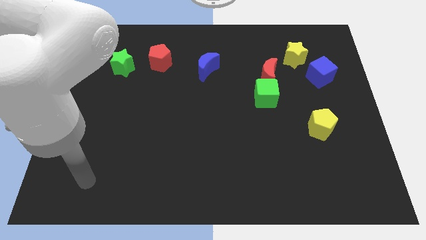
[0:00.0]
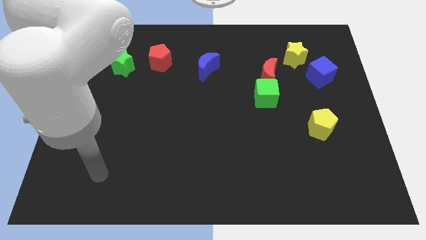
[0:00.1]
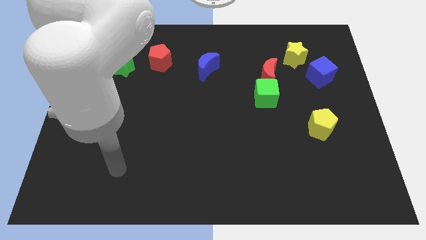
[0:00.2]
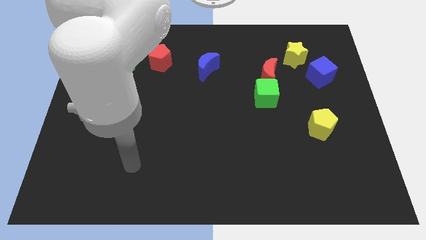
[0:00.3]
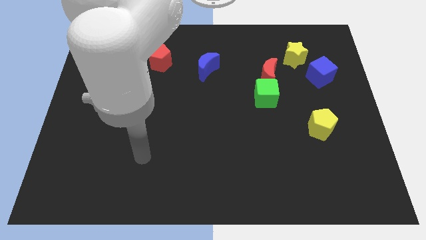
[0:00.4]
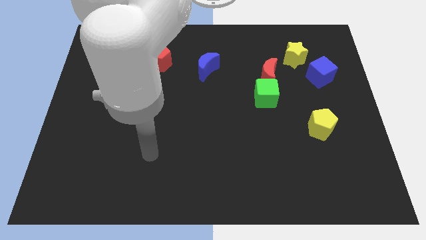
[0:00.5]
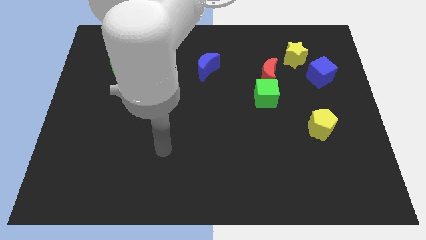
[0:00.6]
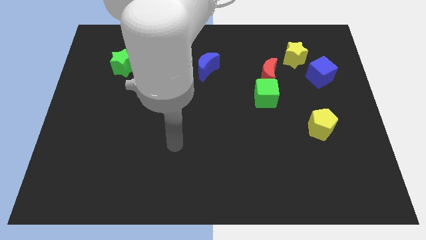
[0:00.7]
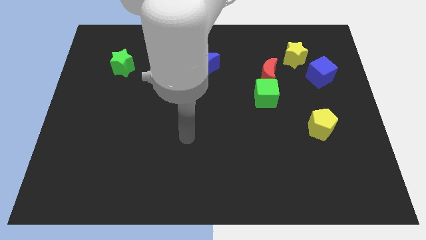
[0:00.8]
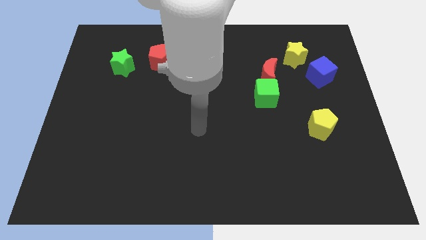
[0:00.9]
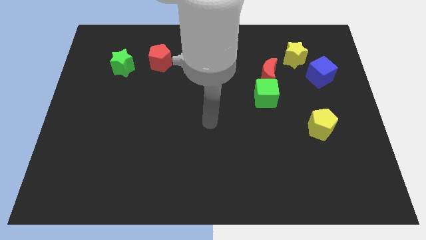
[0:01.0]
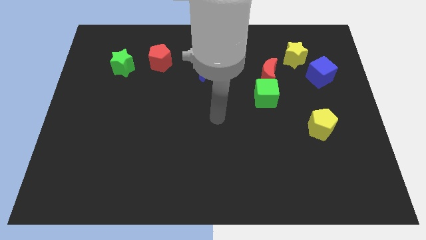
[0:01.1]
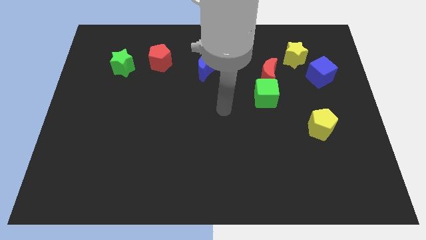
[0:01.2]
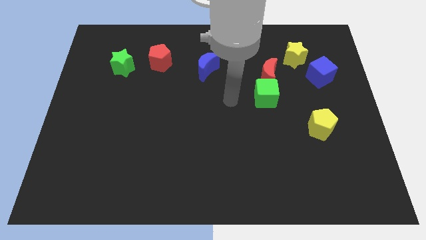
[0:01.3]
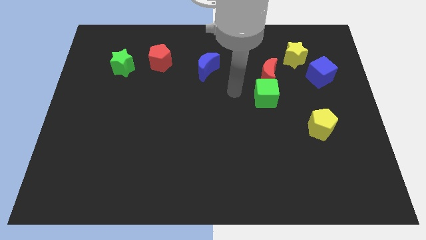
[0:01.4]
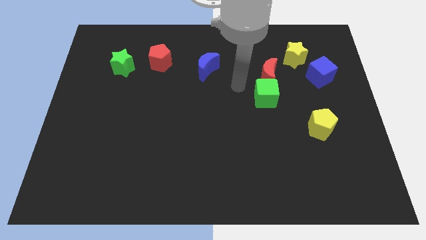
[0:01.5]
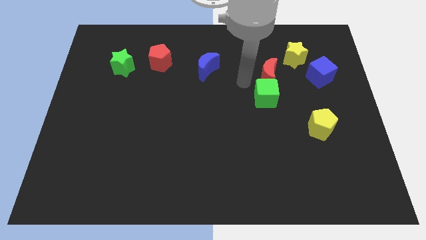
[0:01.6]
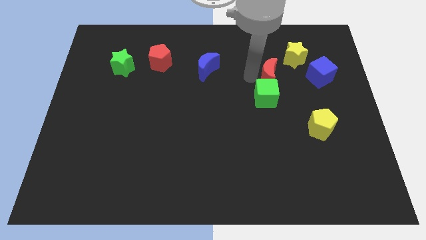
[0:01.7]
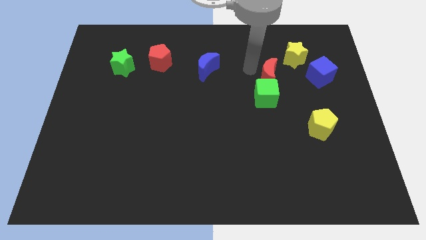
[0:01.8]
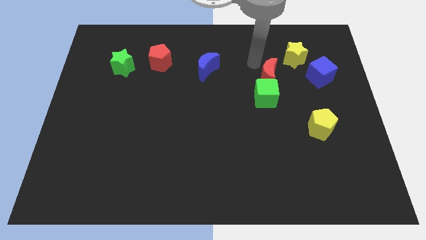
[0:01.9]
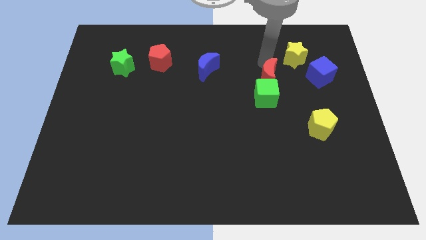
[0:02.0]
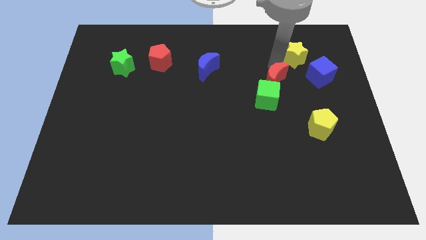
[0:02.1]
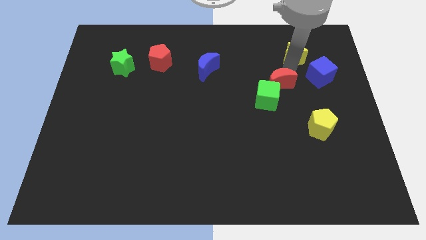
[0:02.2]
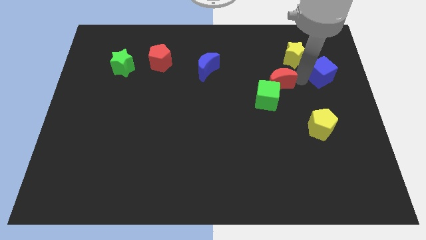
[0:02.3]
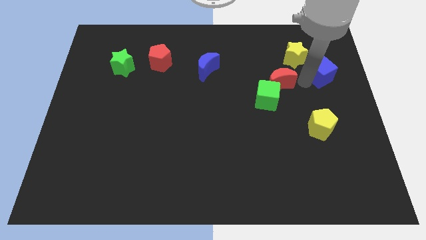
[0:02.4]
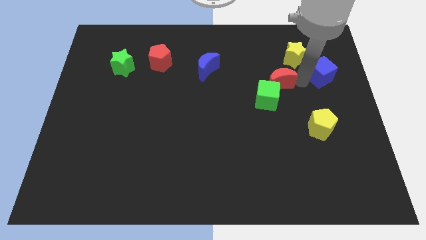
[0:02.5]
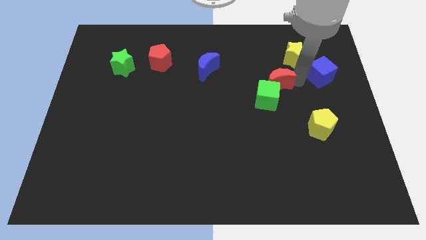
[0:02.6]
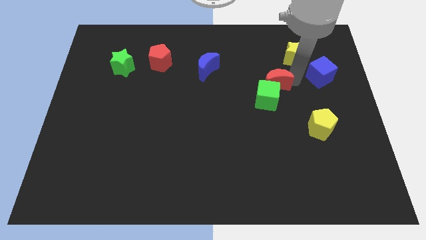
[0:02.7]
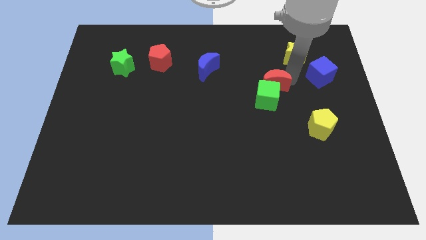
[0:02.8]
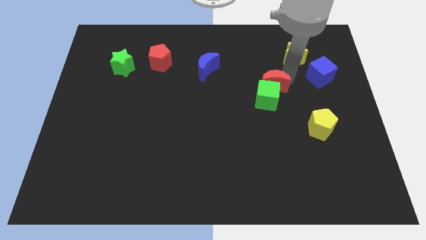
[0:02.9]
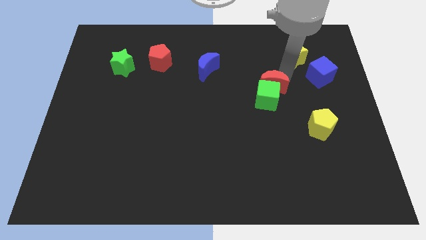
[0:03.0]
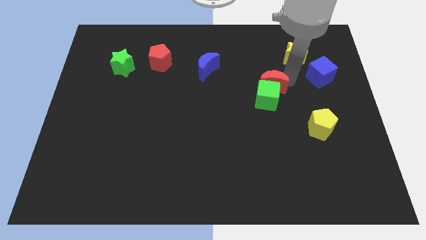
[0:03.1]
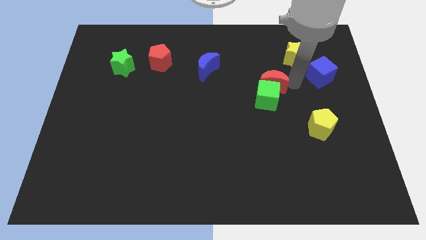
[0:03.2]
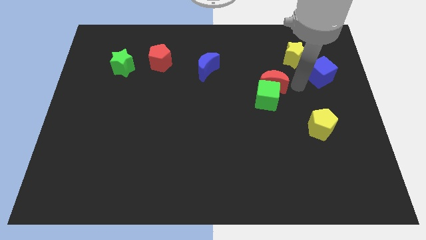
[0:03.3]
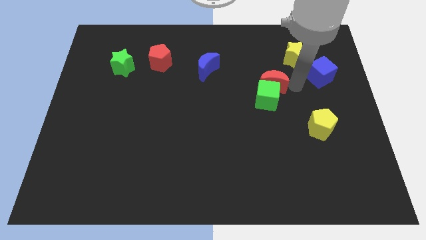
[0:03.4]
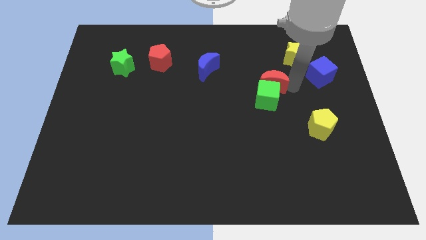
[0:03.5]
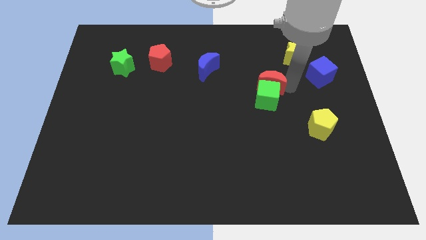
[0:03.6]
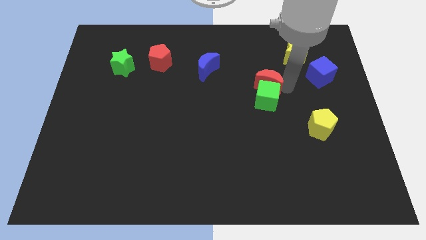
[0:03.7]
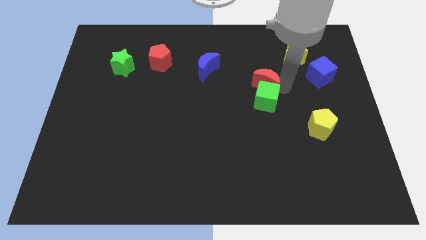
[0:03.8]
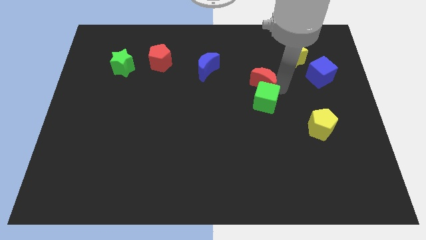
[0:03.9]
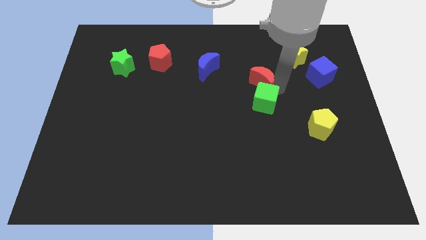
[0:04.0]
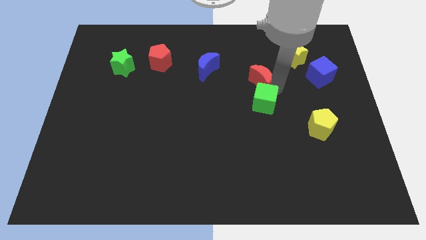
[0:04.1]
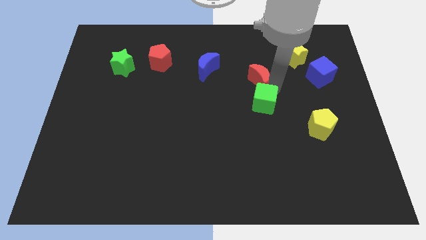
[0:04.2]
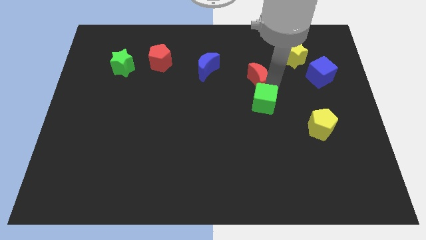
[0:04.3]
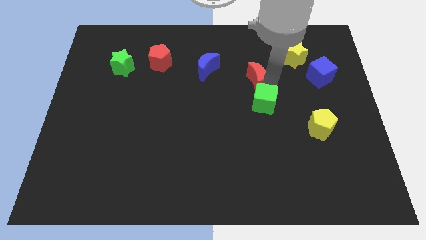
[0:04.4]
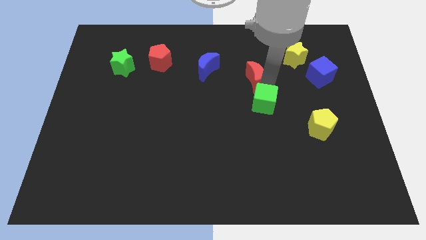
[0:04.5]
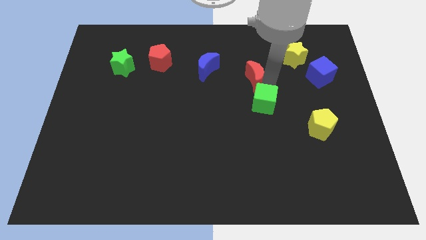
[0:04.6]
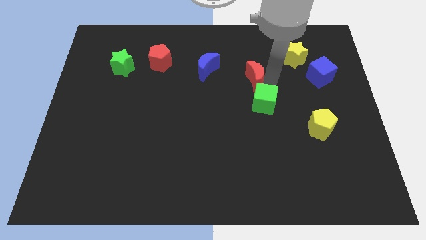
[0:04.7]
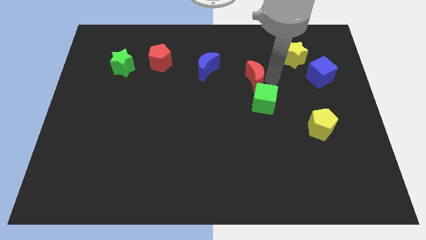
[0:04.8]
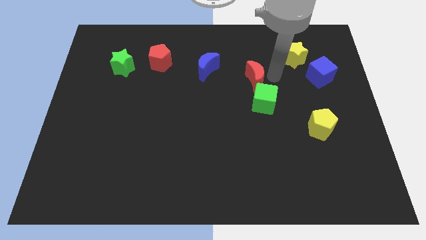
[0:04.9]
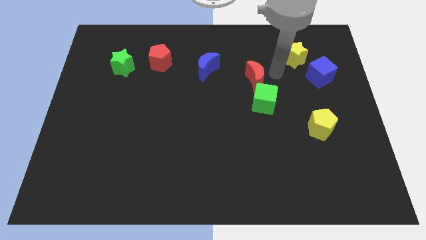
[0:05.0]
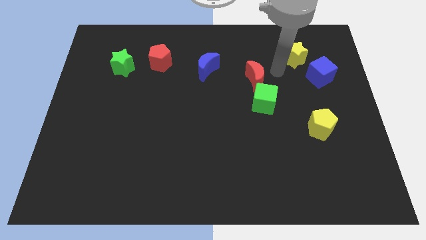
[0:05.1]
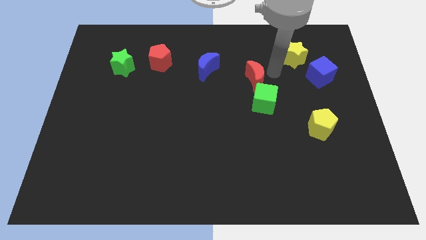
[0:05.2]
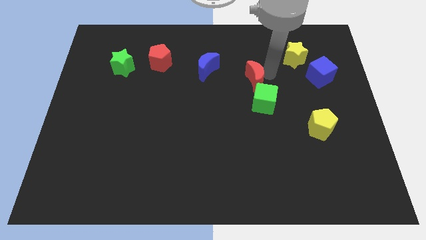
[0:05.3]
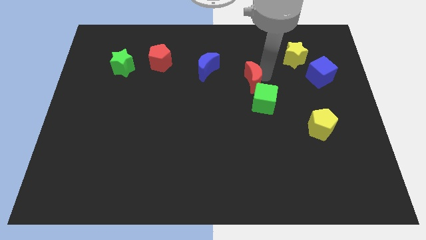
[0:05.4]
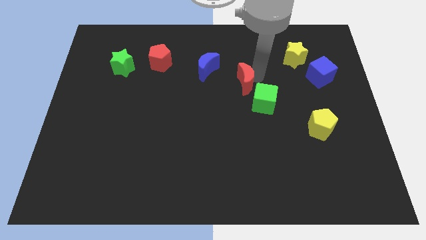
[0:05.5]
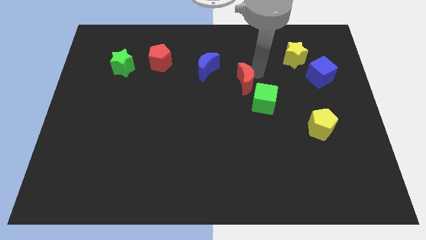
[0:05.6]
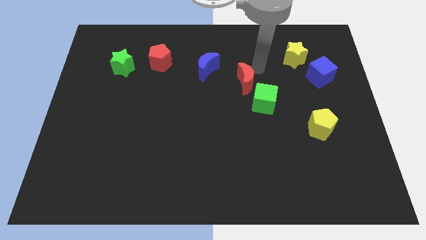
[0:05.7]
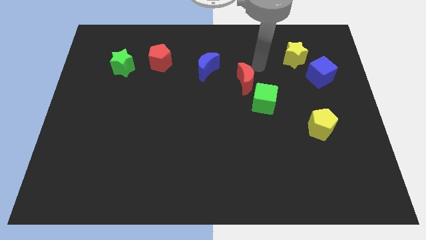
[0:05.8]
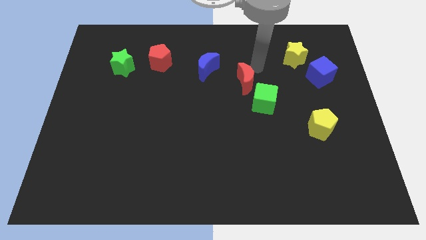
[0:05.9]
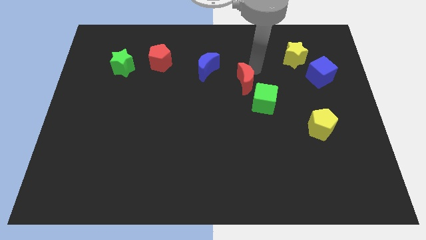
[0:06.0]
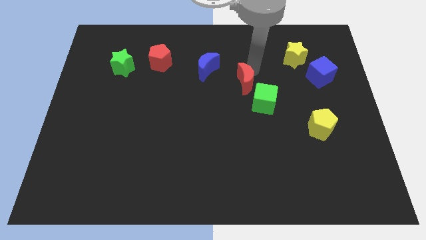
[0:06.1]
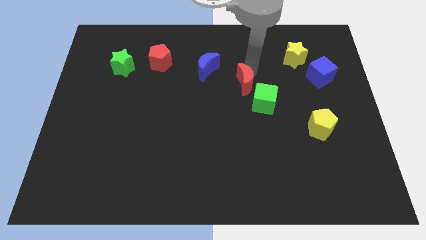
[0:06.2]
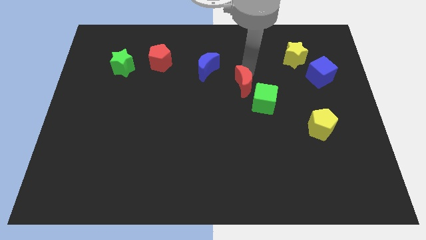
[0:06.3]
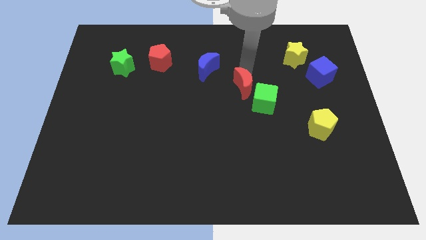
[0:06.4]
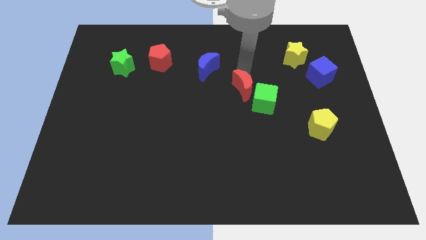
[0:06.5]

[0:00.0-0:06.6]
push the red moon somewhat down and then left

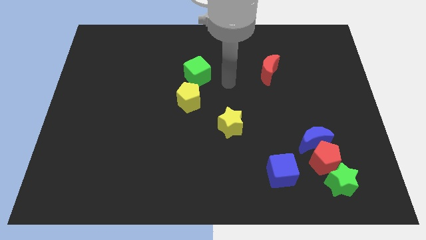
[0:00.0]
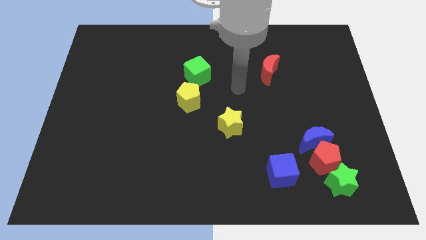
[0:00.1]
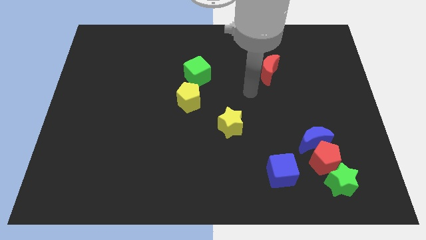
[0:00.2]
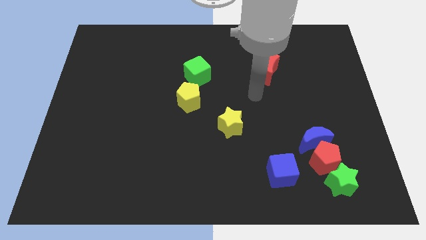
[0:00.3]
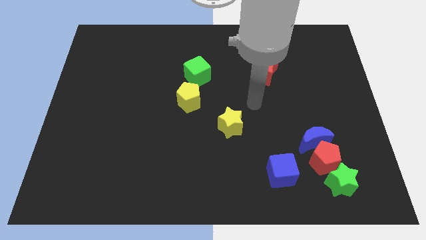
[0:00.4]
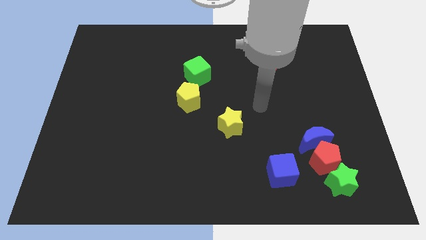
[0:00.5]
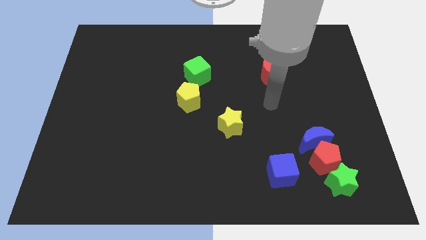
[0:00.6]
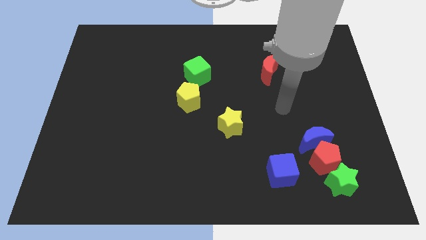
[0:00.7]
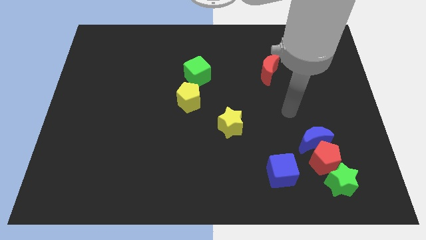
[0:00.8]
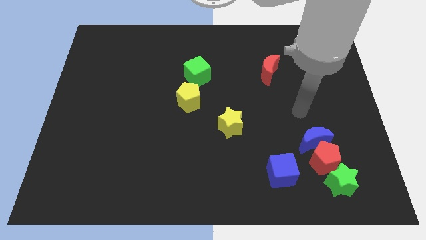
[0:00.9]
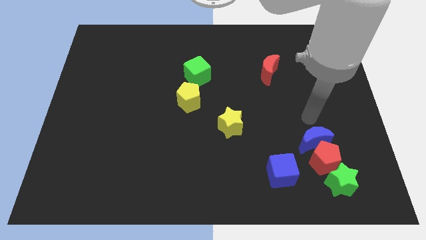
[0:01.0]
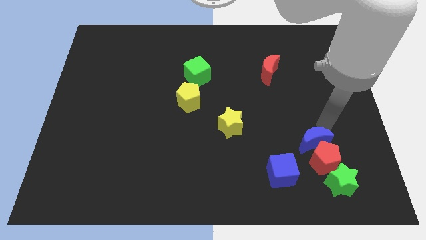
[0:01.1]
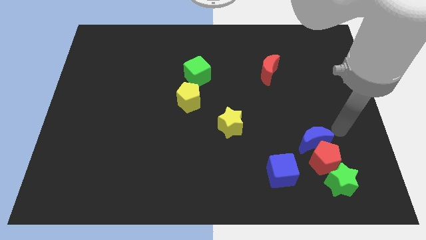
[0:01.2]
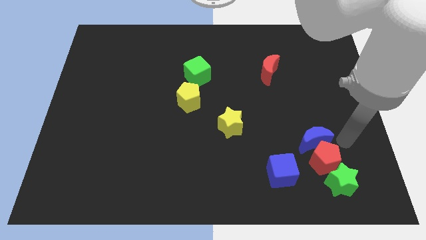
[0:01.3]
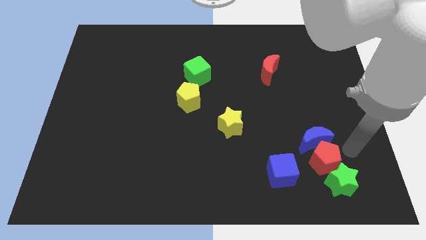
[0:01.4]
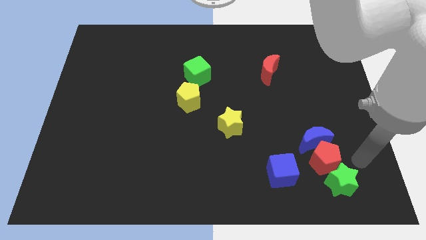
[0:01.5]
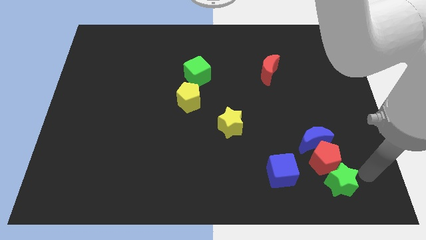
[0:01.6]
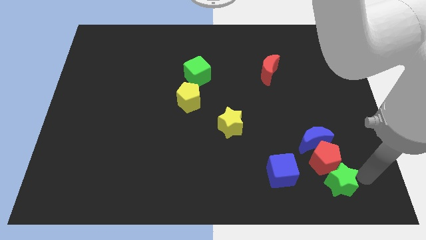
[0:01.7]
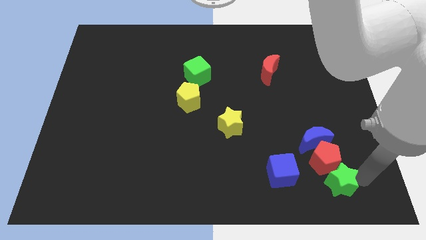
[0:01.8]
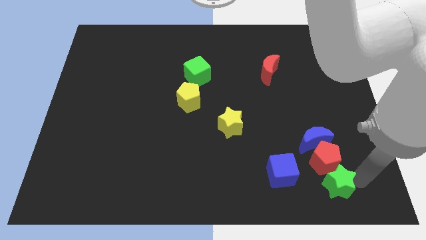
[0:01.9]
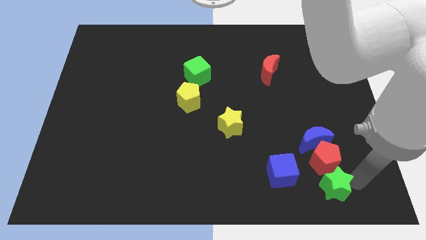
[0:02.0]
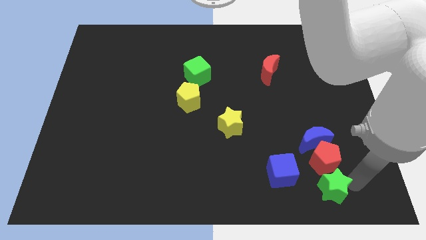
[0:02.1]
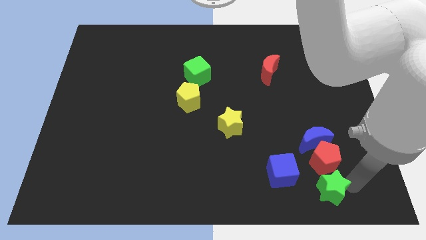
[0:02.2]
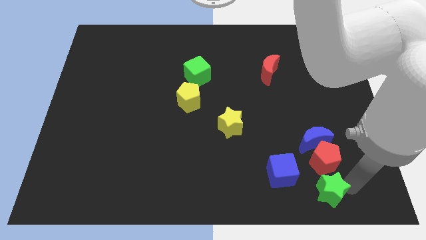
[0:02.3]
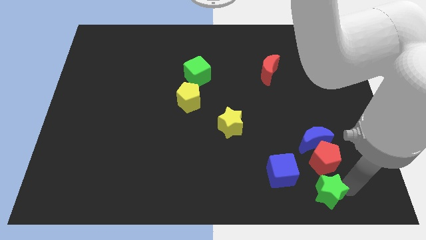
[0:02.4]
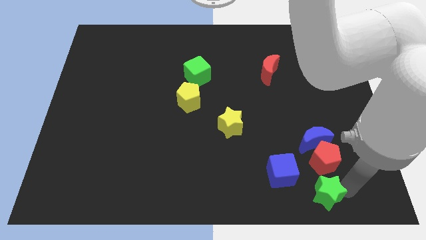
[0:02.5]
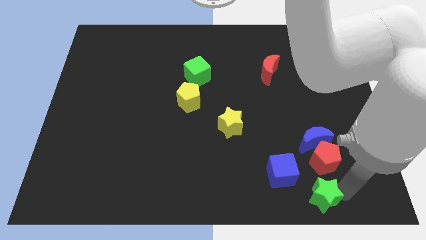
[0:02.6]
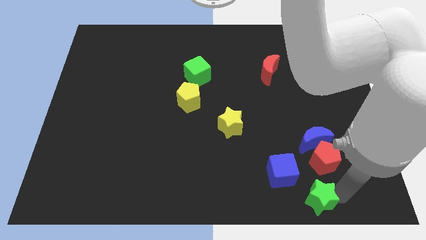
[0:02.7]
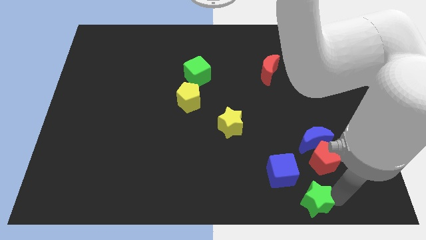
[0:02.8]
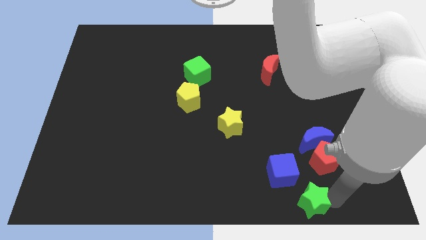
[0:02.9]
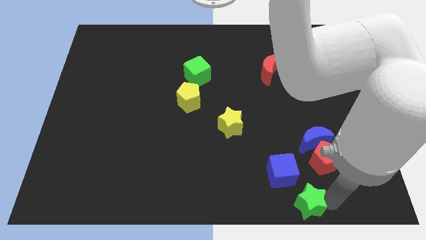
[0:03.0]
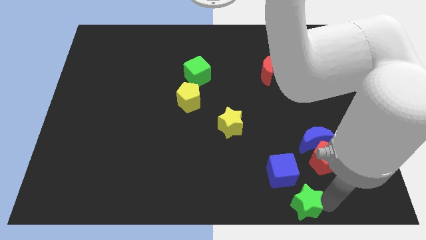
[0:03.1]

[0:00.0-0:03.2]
slightly slide the green star to the left
